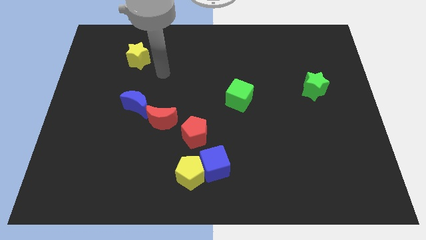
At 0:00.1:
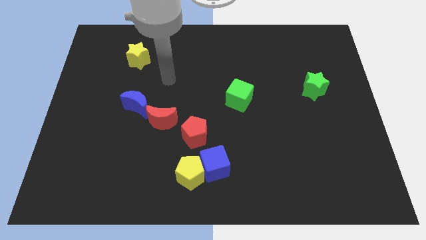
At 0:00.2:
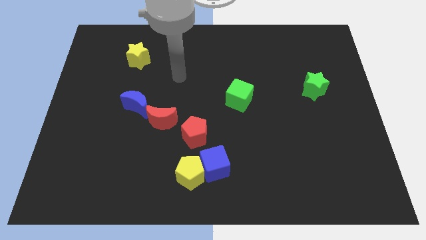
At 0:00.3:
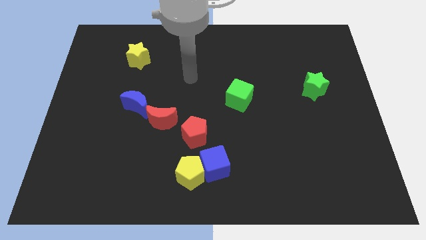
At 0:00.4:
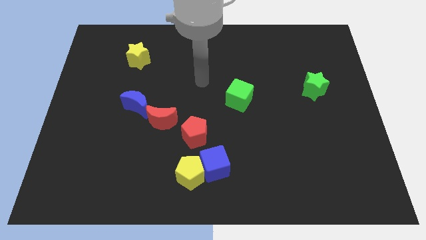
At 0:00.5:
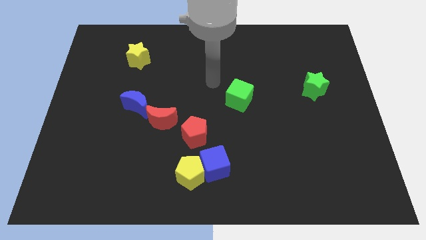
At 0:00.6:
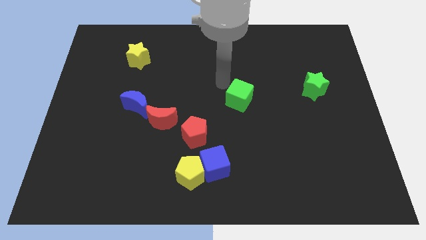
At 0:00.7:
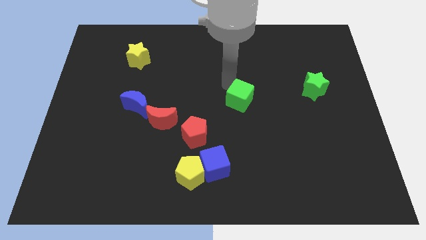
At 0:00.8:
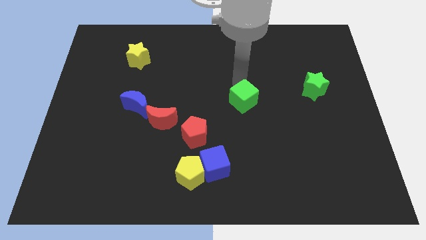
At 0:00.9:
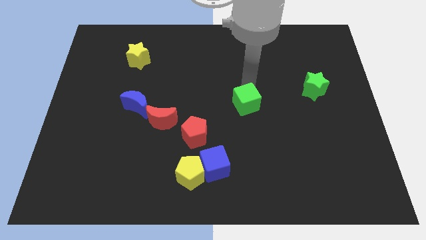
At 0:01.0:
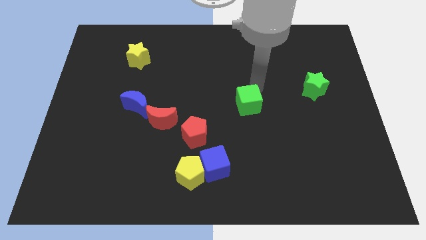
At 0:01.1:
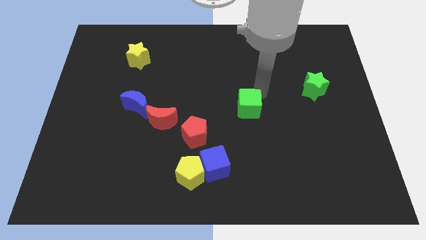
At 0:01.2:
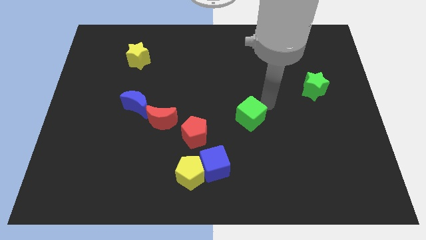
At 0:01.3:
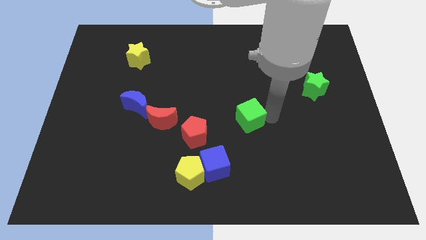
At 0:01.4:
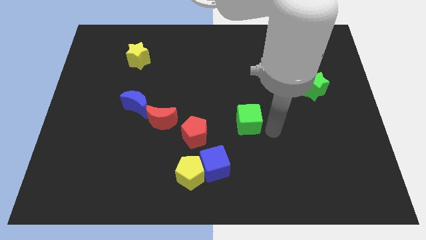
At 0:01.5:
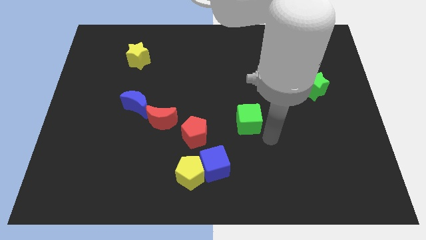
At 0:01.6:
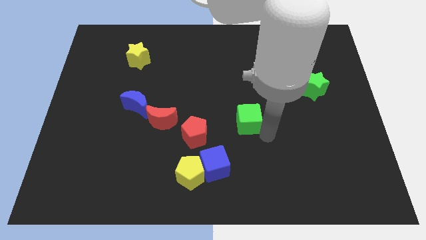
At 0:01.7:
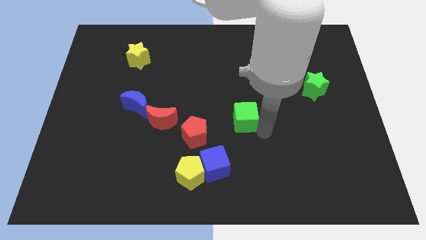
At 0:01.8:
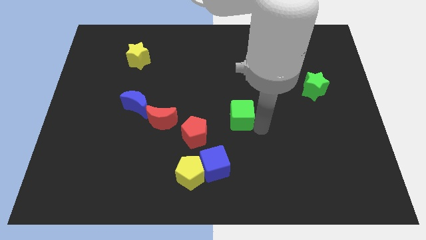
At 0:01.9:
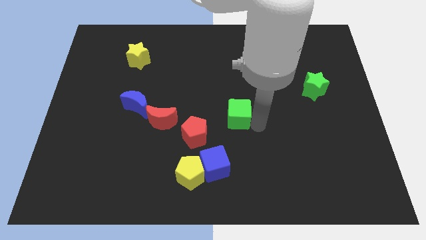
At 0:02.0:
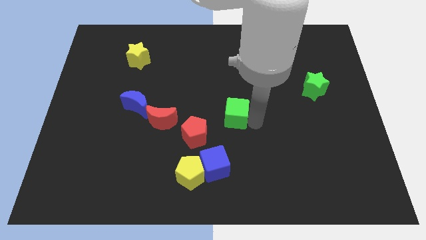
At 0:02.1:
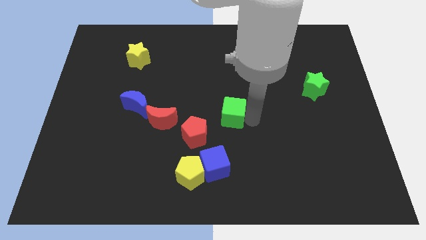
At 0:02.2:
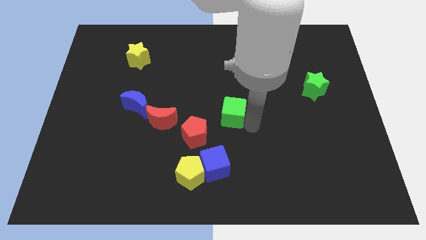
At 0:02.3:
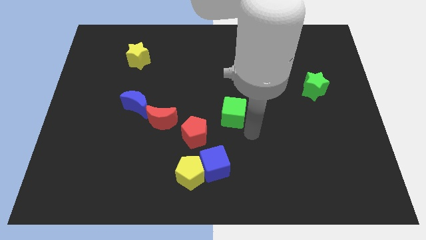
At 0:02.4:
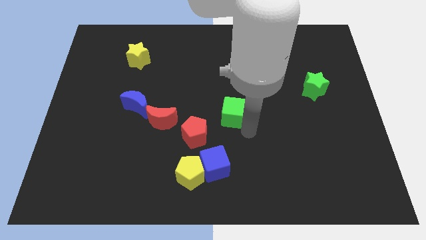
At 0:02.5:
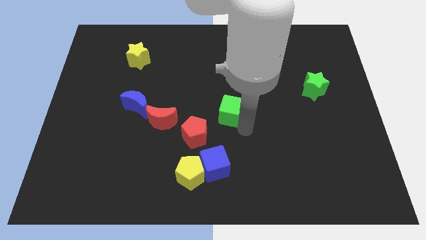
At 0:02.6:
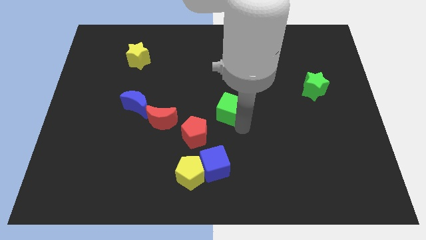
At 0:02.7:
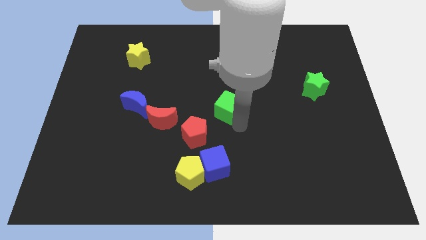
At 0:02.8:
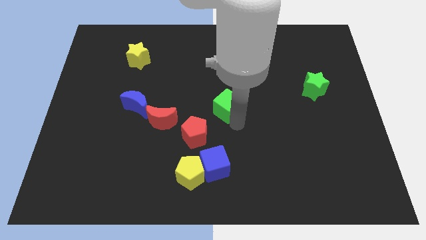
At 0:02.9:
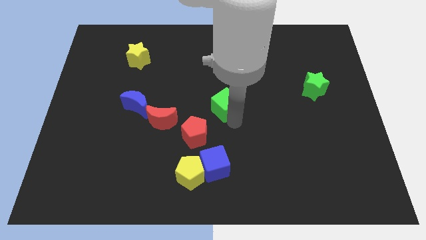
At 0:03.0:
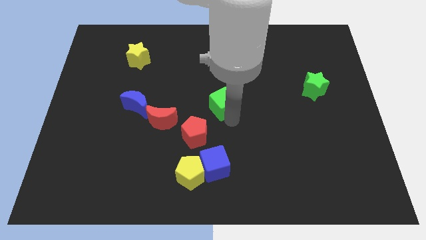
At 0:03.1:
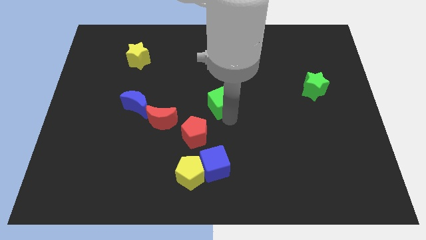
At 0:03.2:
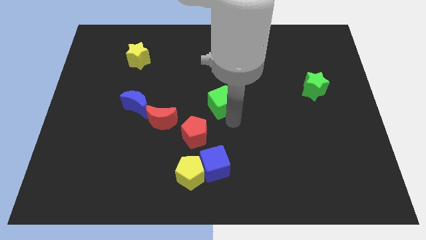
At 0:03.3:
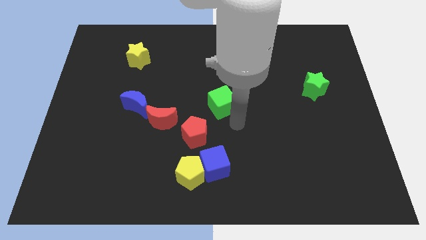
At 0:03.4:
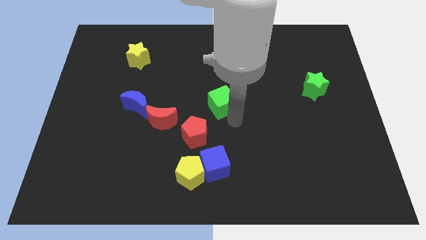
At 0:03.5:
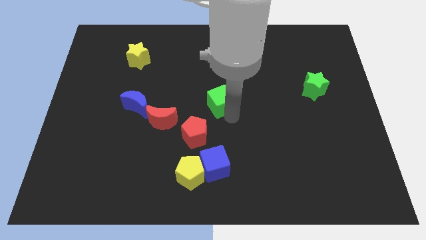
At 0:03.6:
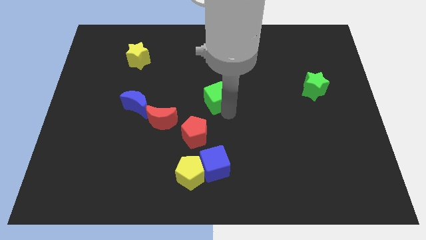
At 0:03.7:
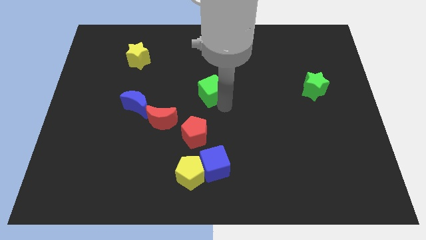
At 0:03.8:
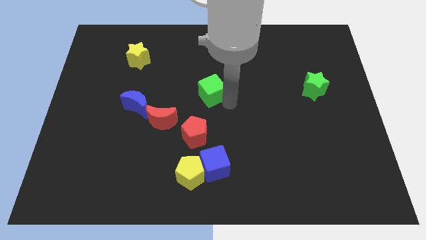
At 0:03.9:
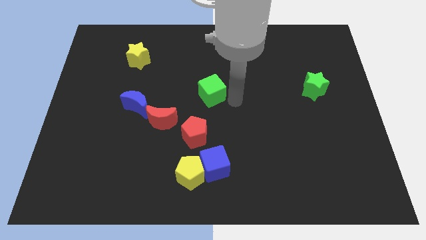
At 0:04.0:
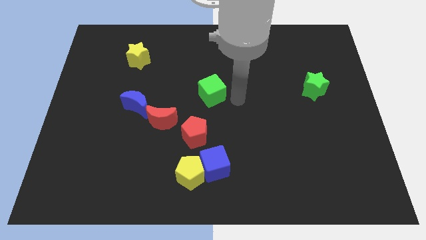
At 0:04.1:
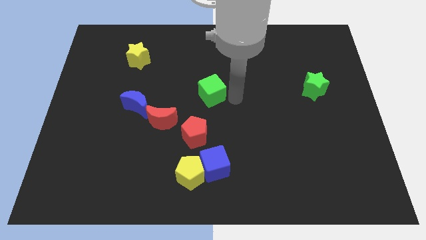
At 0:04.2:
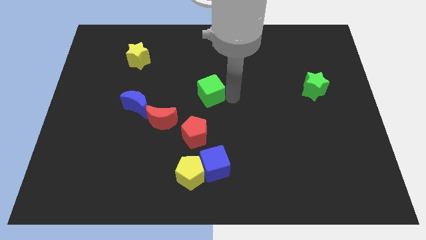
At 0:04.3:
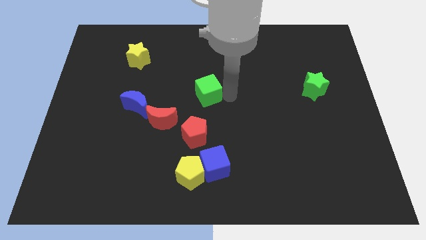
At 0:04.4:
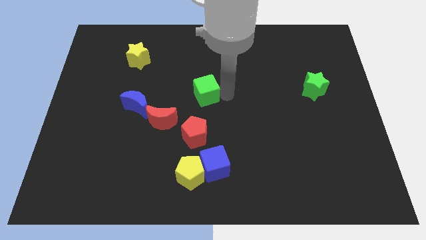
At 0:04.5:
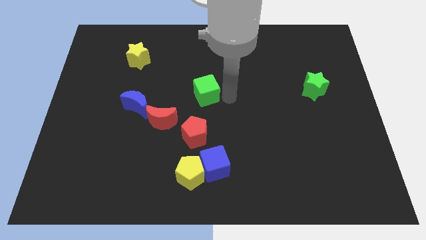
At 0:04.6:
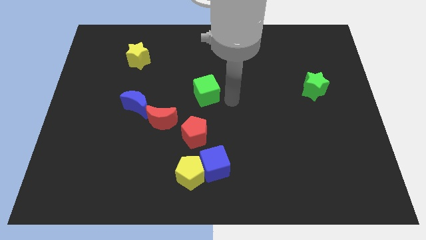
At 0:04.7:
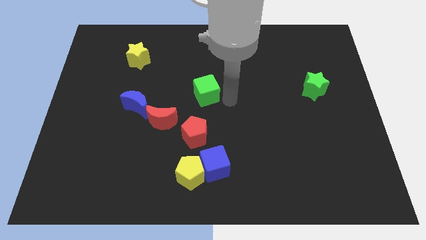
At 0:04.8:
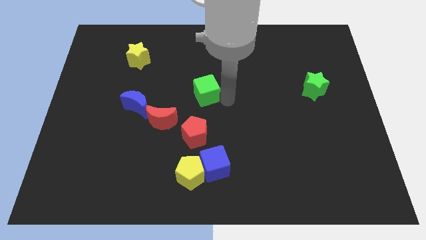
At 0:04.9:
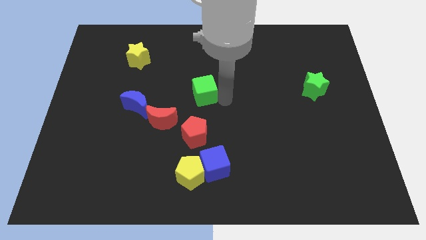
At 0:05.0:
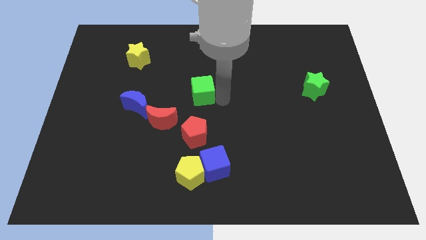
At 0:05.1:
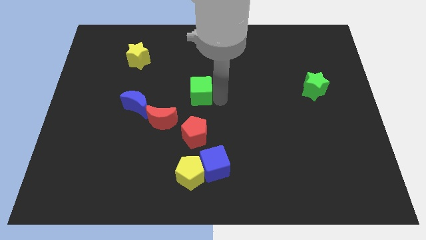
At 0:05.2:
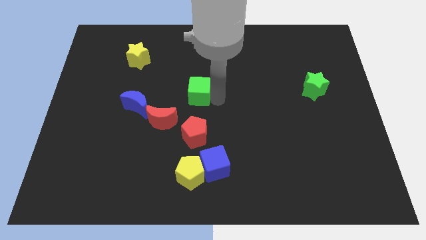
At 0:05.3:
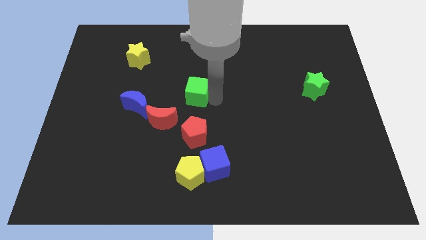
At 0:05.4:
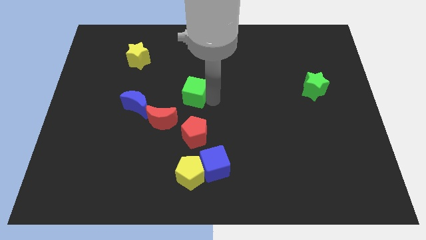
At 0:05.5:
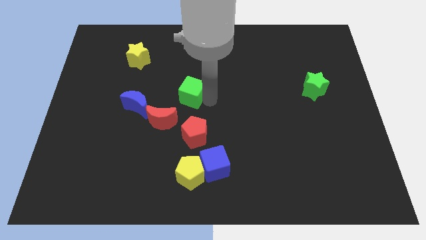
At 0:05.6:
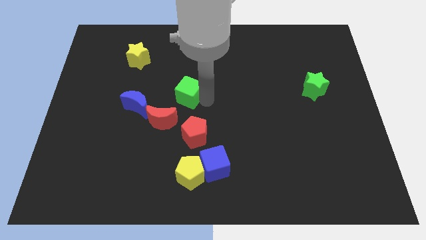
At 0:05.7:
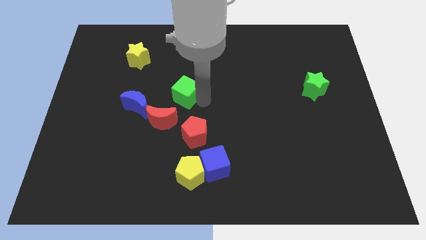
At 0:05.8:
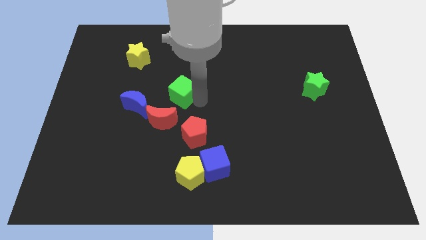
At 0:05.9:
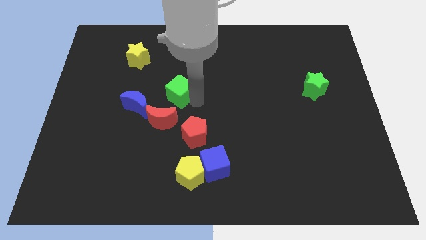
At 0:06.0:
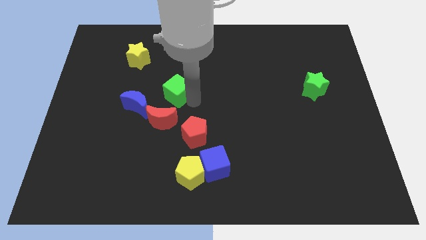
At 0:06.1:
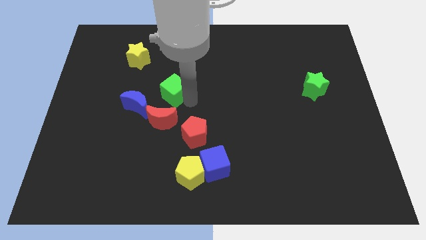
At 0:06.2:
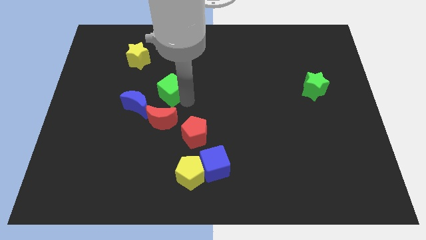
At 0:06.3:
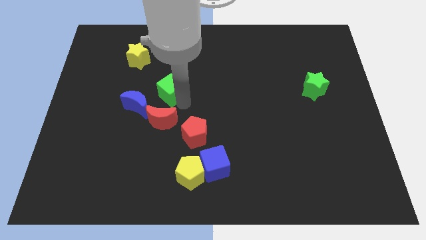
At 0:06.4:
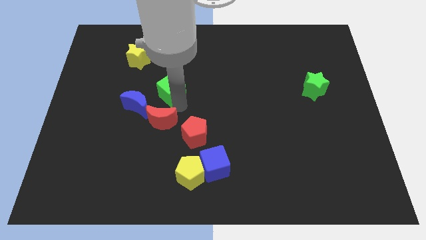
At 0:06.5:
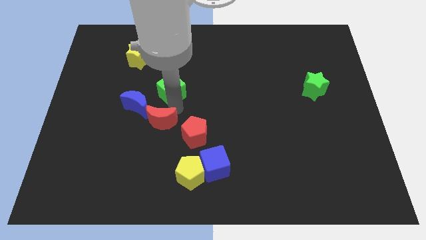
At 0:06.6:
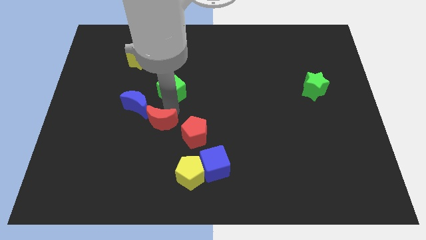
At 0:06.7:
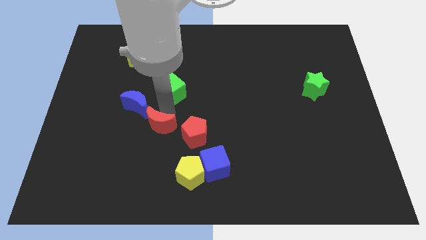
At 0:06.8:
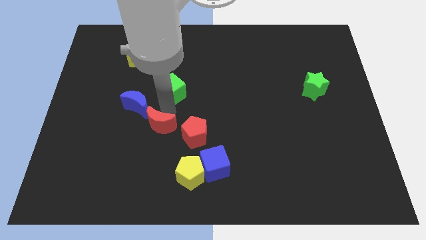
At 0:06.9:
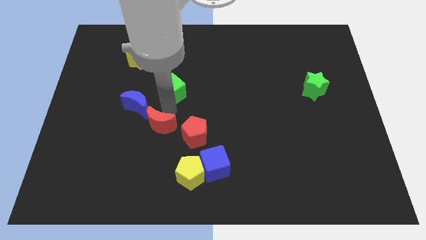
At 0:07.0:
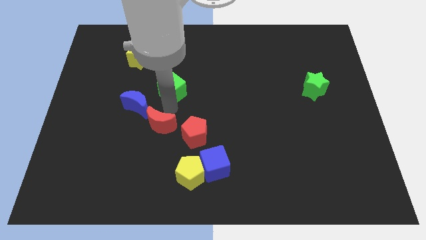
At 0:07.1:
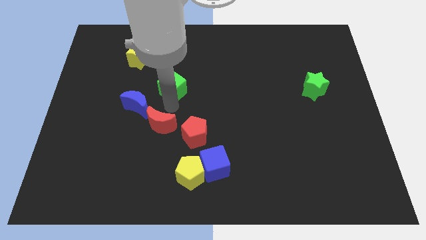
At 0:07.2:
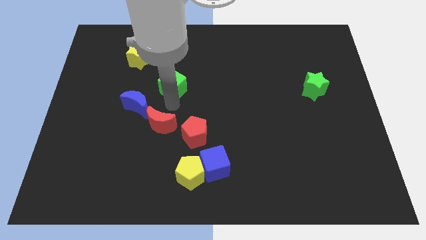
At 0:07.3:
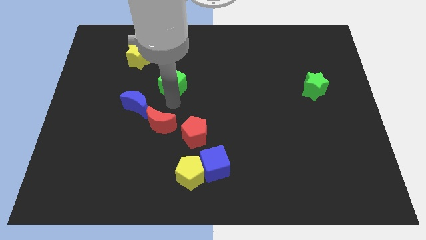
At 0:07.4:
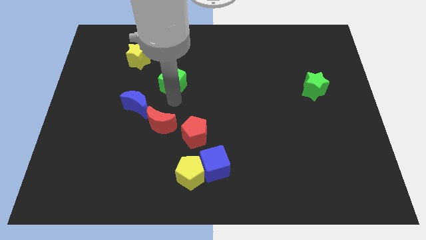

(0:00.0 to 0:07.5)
push the green cube to the bottom right side of the yellow star
